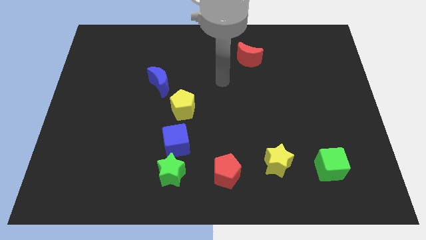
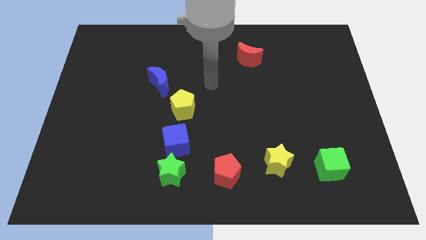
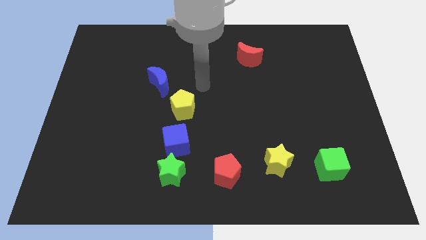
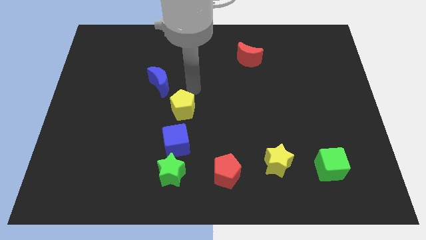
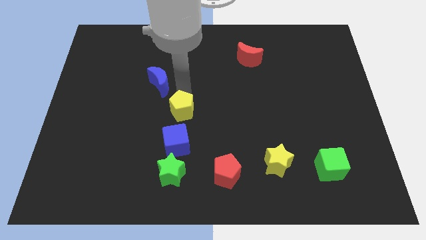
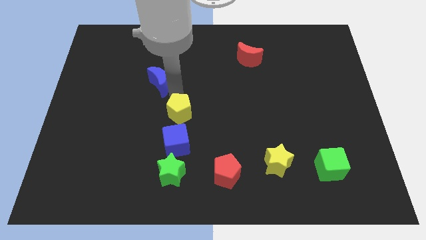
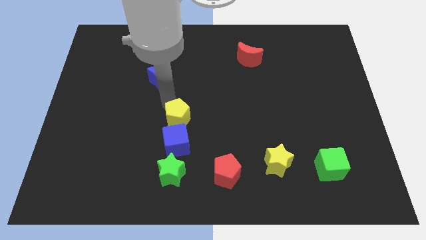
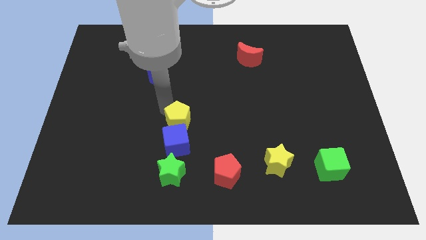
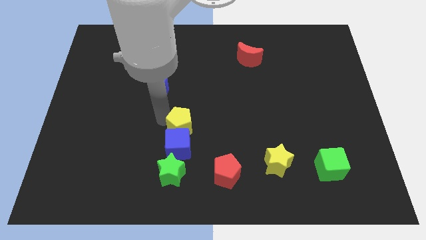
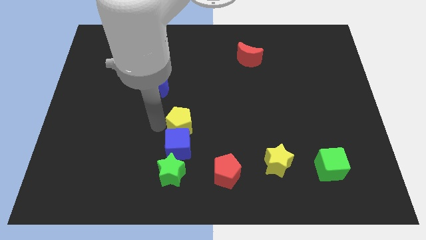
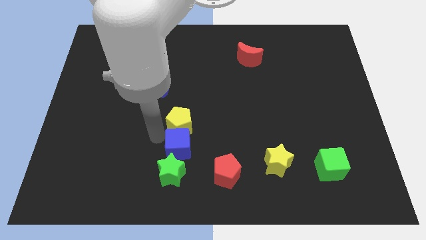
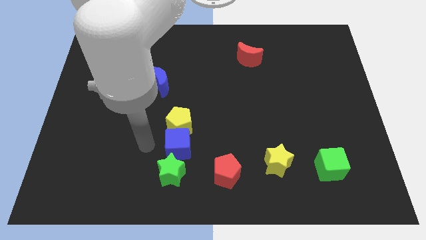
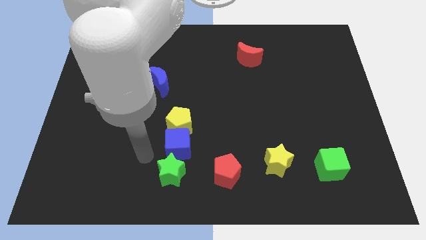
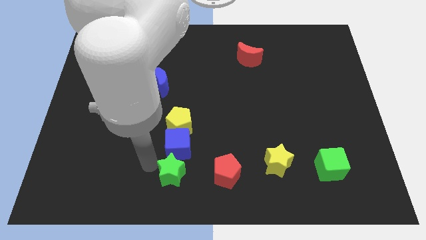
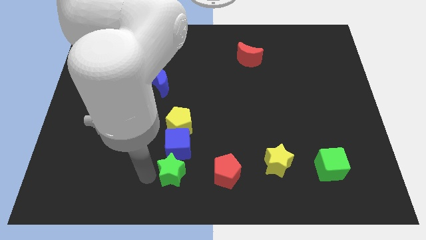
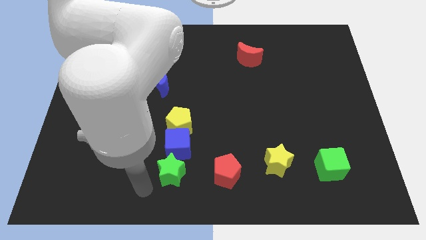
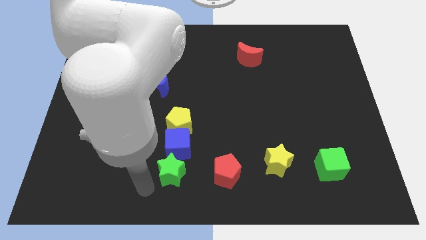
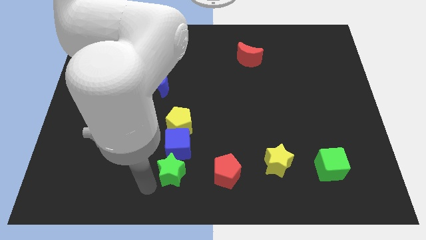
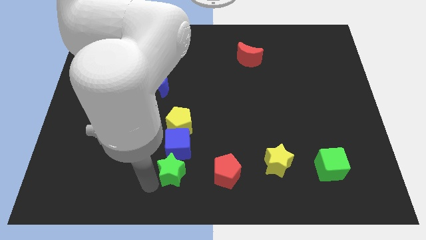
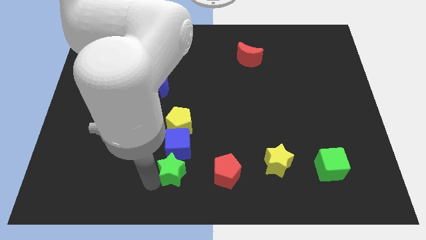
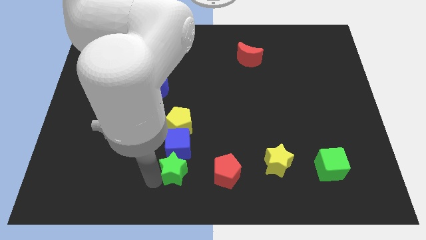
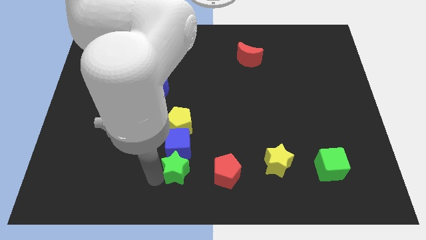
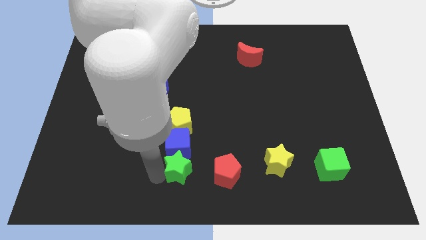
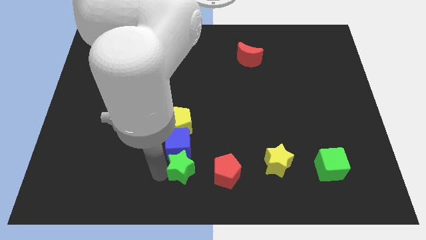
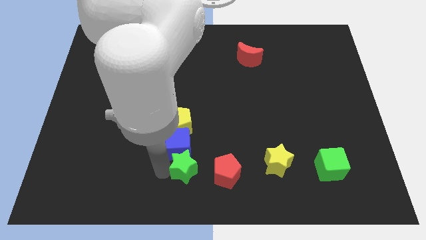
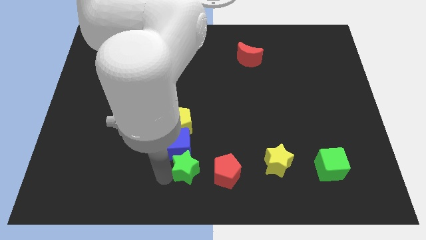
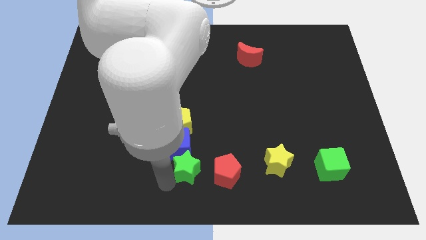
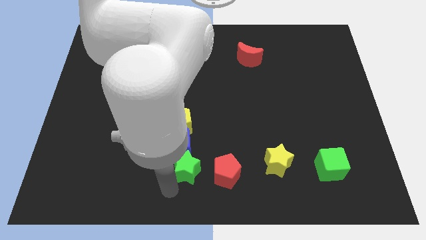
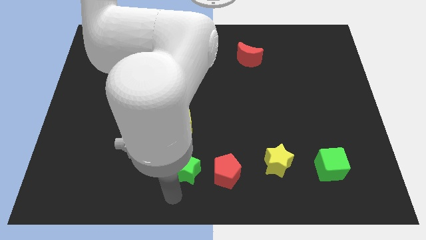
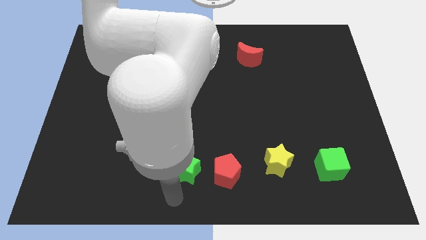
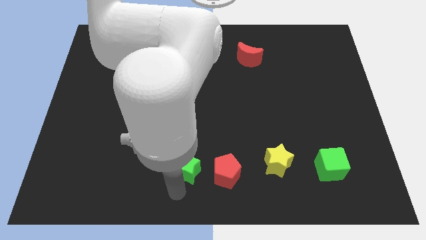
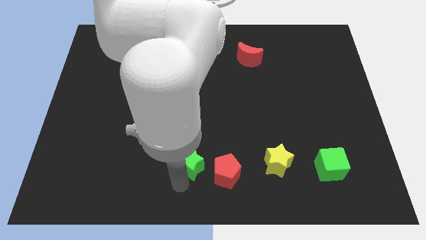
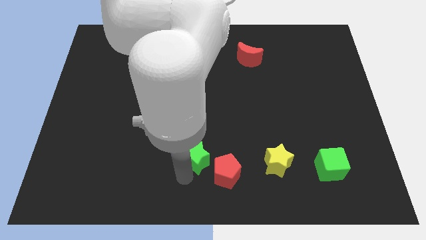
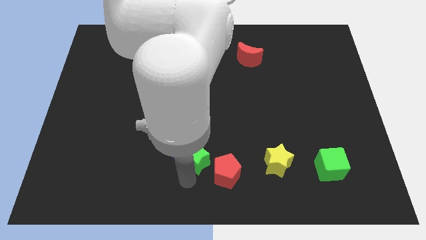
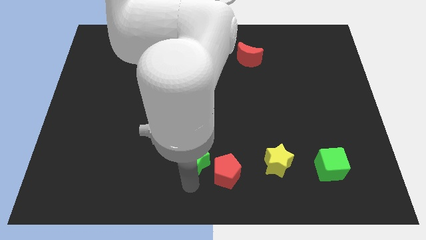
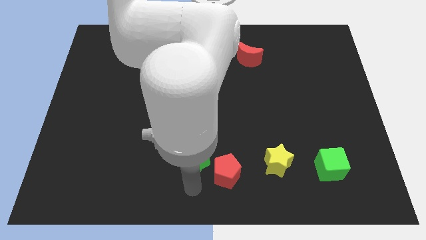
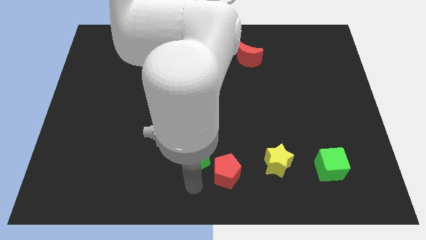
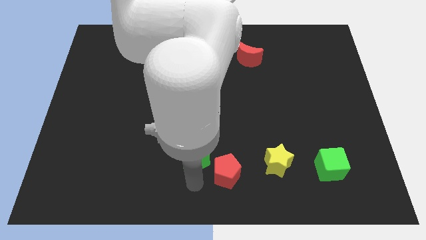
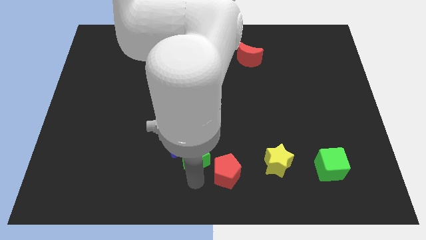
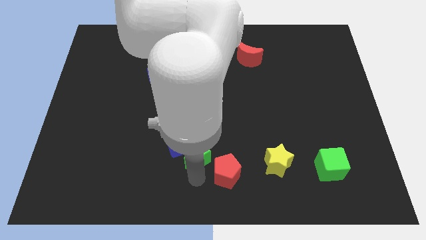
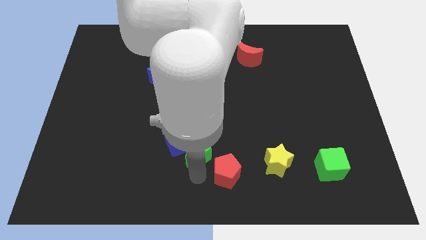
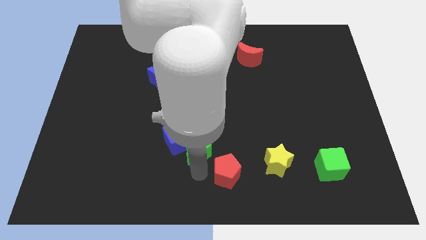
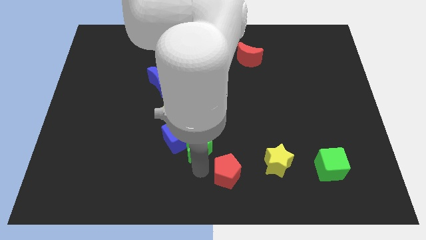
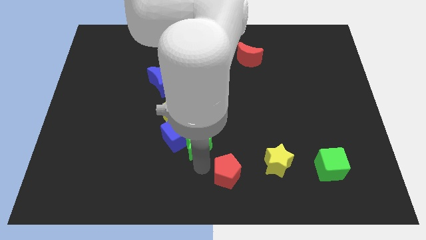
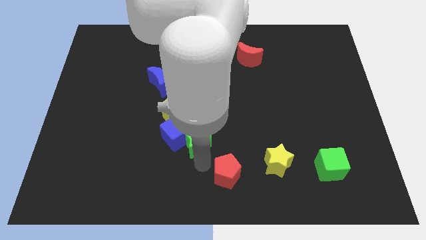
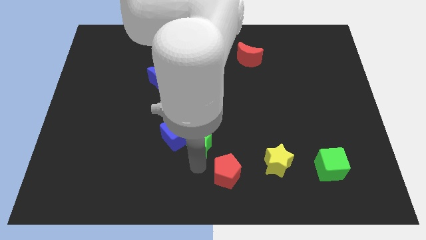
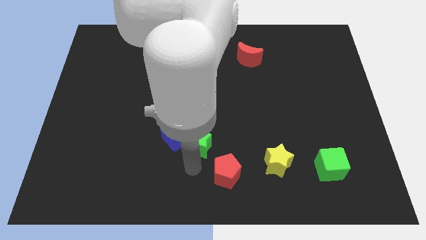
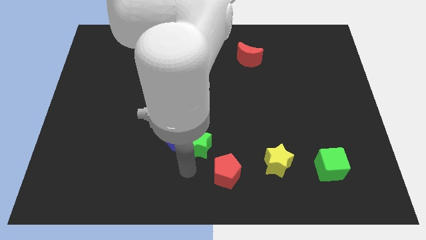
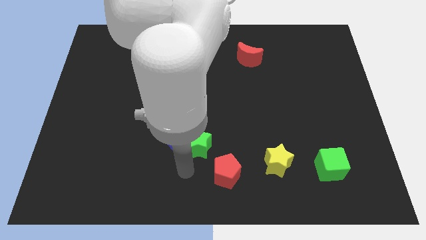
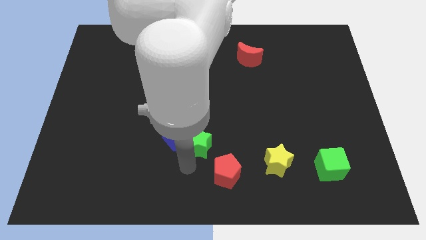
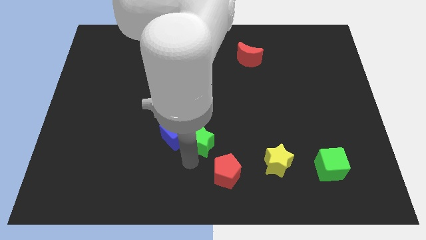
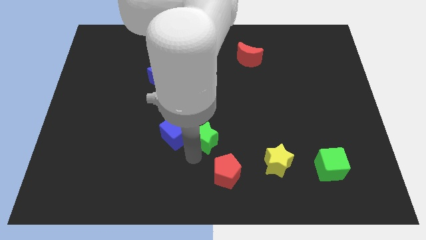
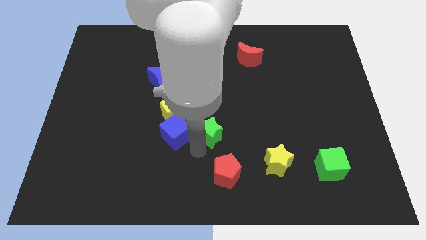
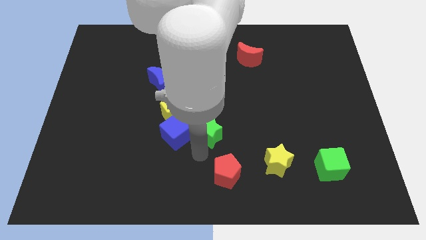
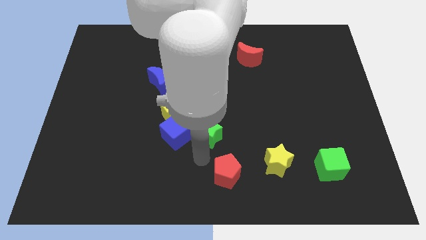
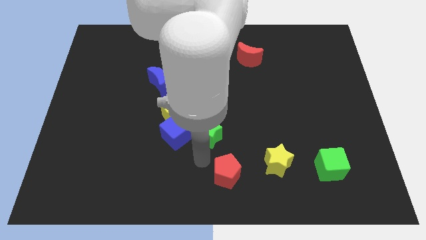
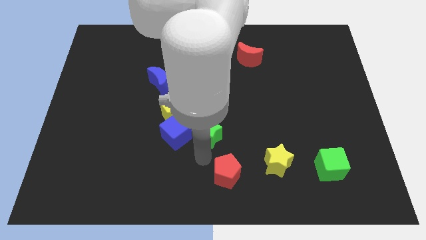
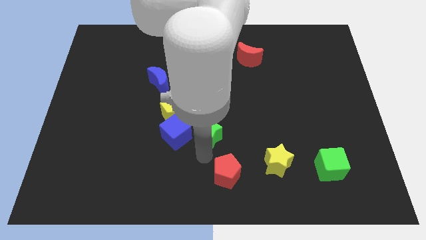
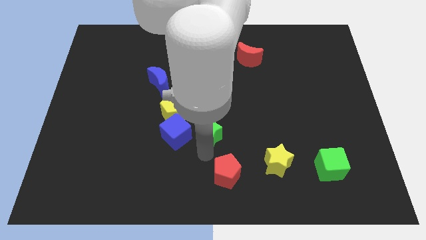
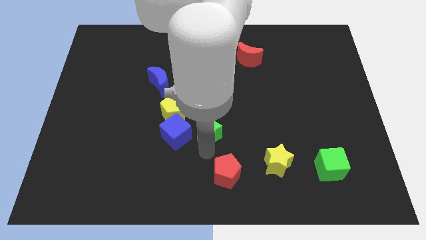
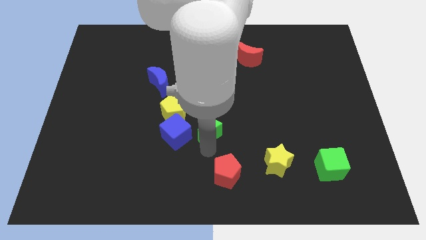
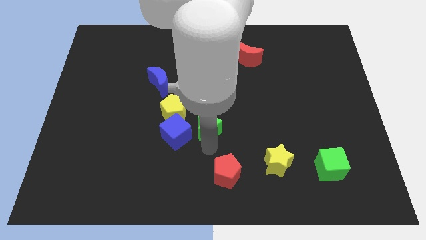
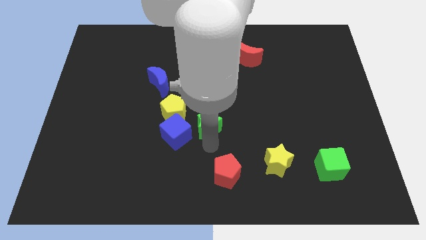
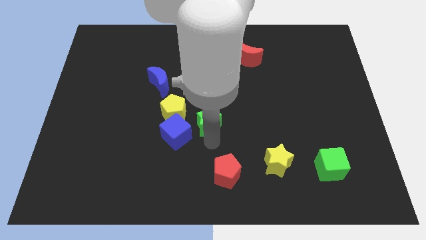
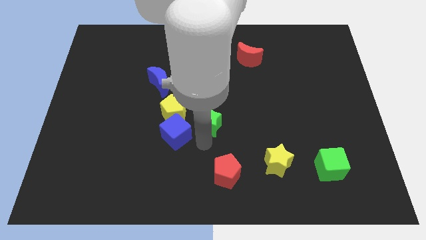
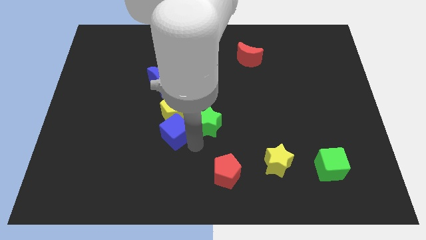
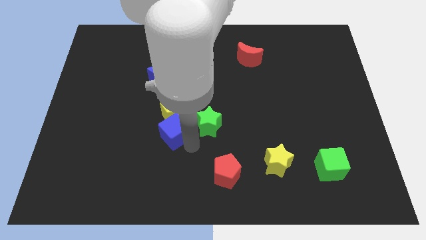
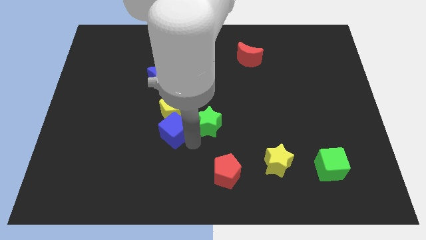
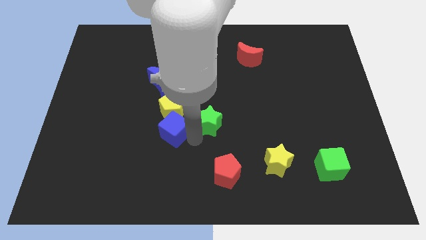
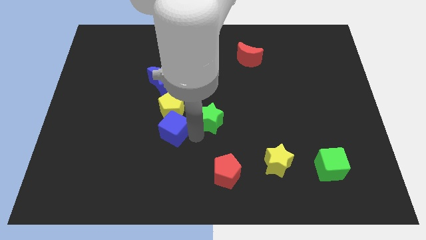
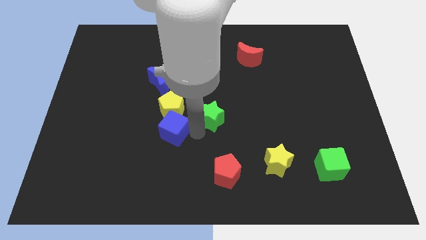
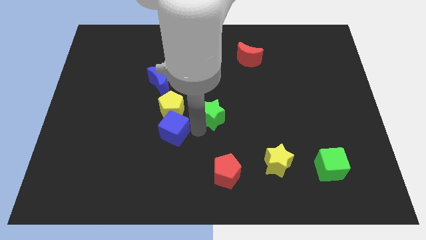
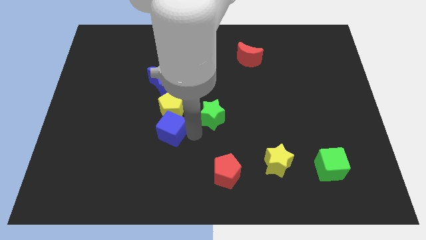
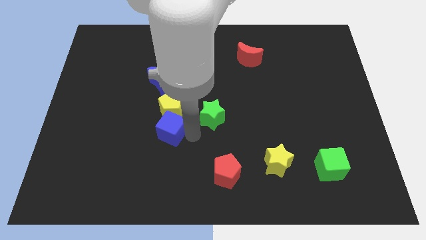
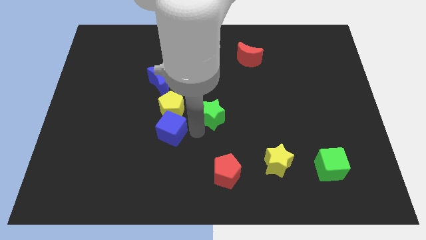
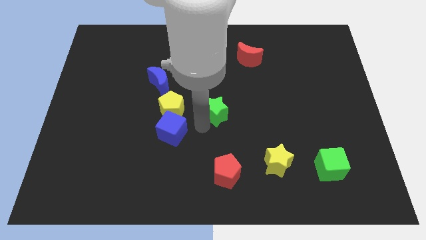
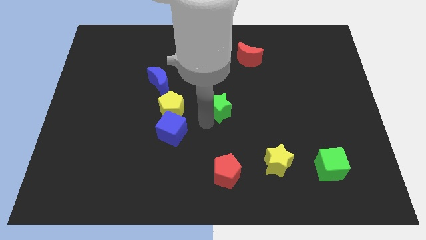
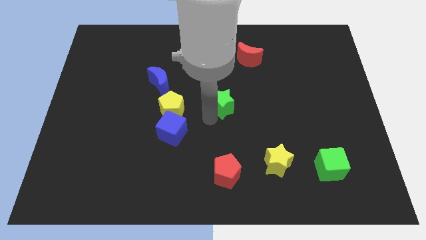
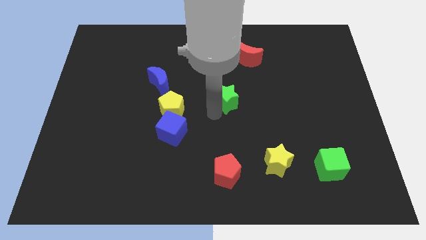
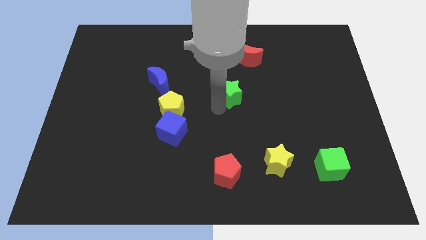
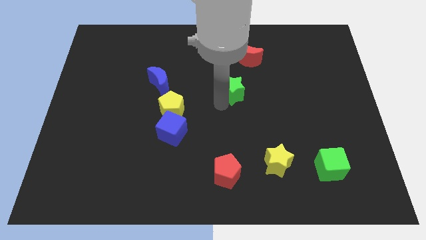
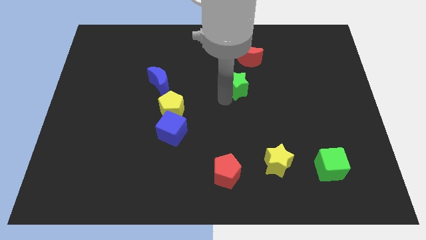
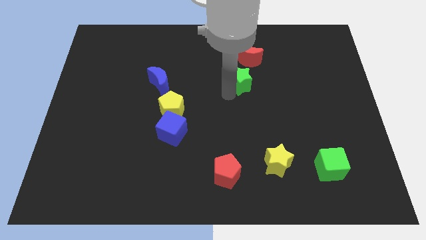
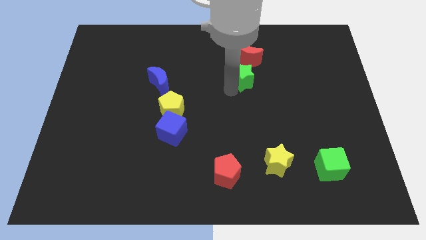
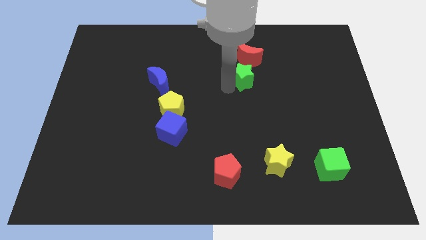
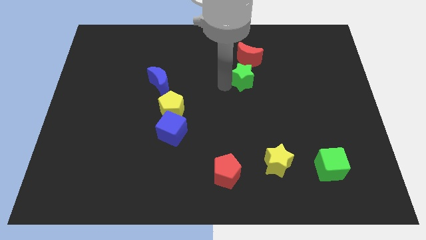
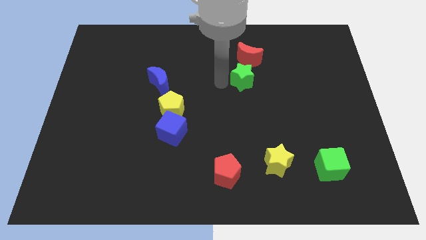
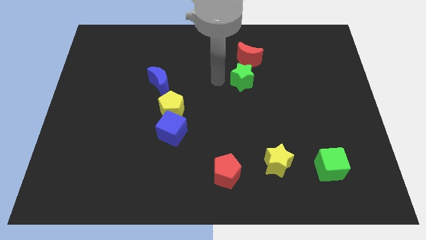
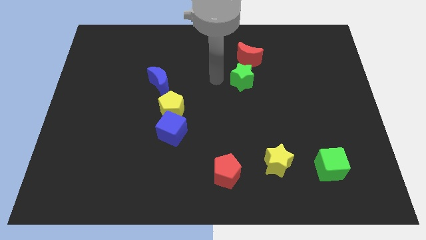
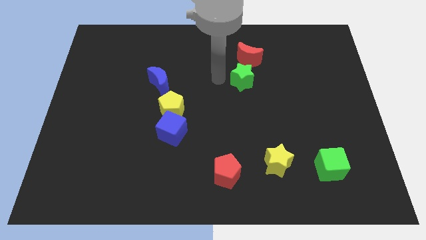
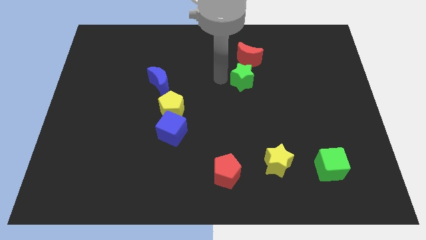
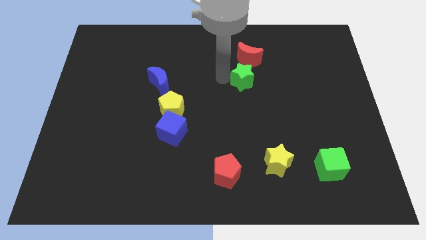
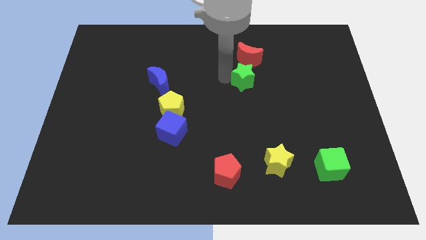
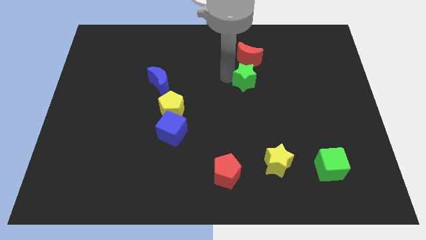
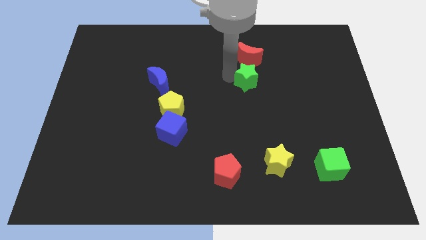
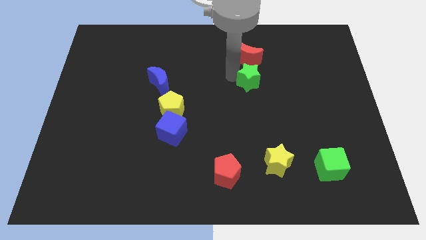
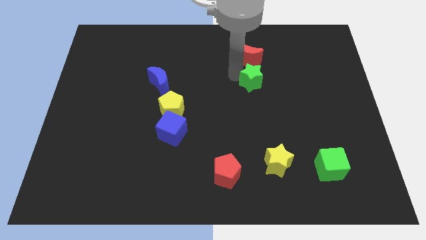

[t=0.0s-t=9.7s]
put the green star diagonally down and to the right of the red moon
